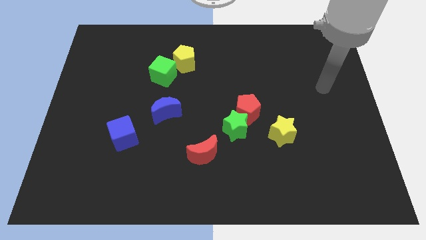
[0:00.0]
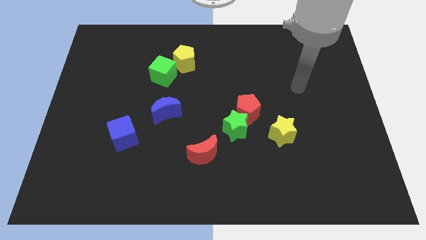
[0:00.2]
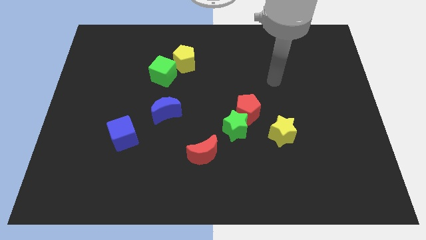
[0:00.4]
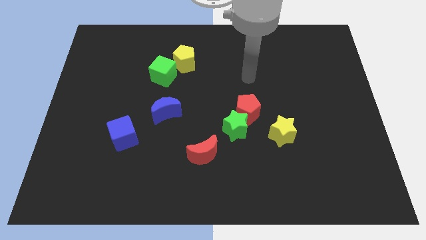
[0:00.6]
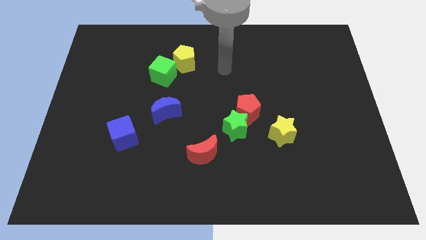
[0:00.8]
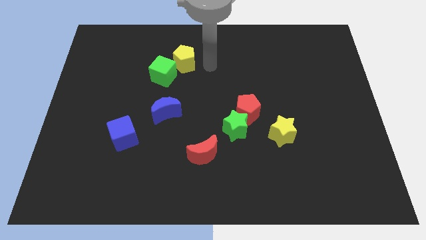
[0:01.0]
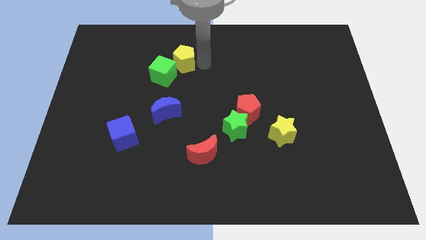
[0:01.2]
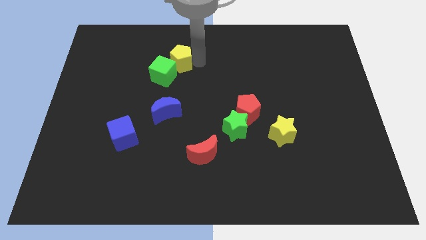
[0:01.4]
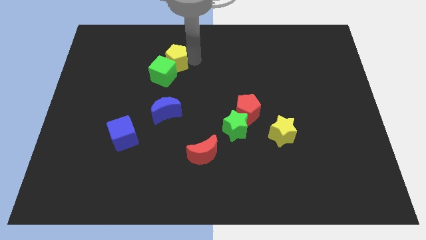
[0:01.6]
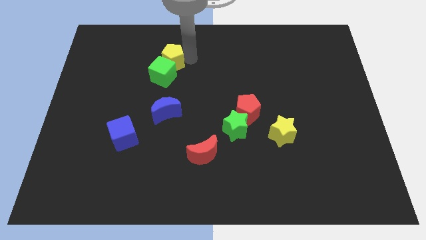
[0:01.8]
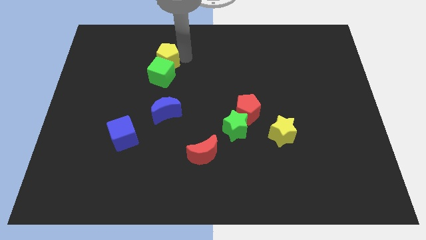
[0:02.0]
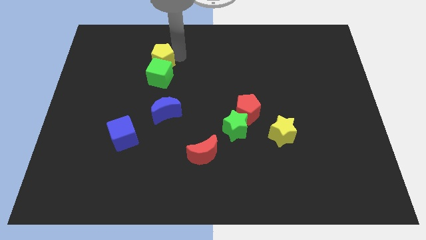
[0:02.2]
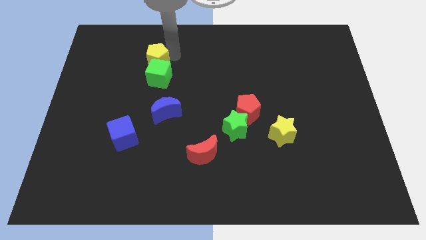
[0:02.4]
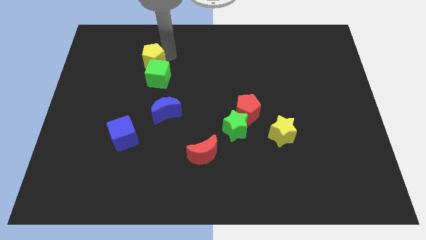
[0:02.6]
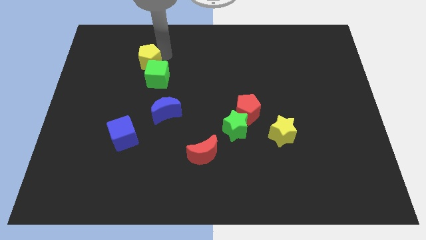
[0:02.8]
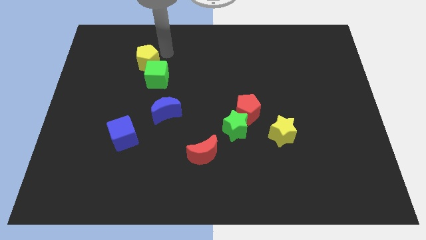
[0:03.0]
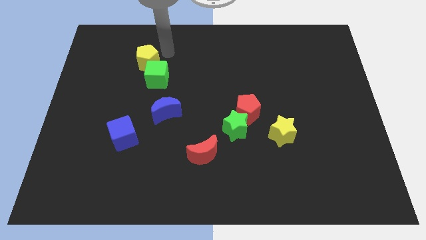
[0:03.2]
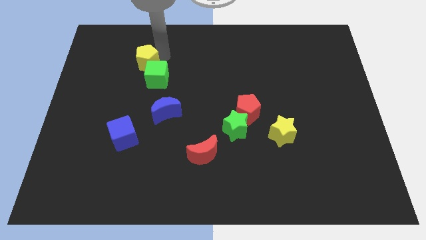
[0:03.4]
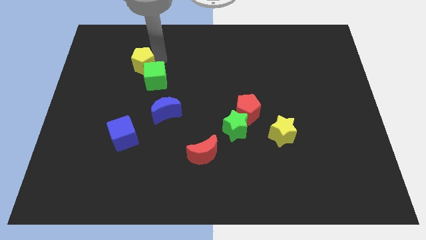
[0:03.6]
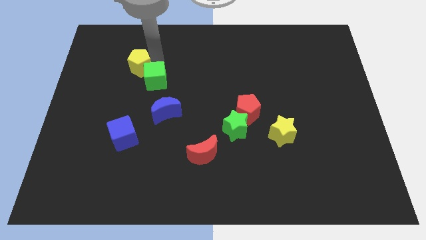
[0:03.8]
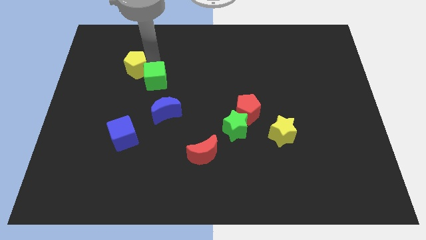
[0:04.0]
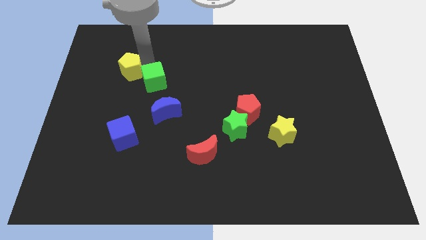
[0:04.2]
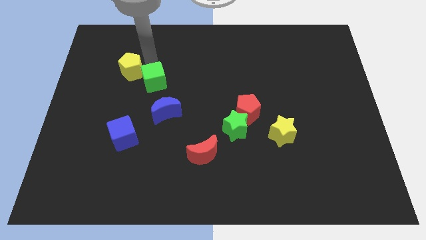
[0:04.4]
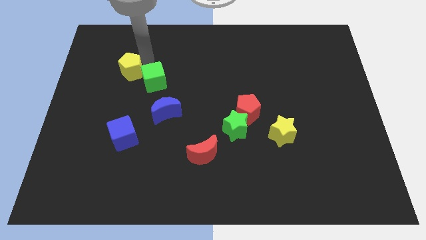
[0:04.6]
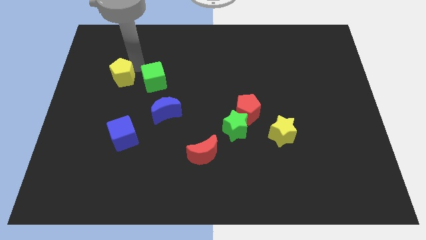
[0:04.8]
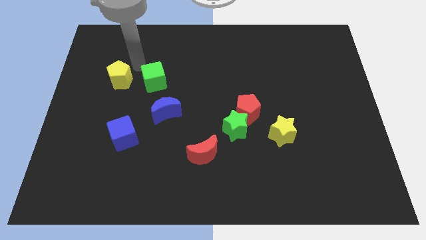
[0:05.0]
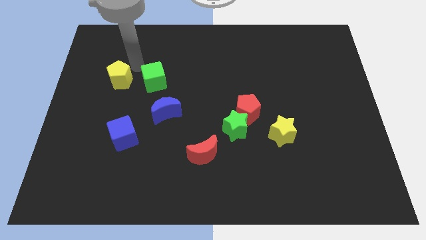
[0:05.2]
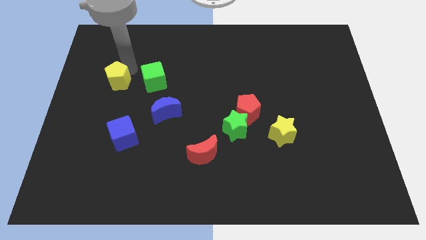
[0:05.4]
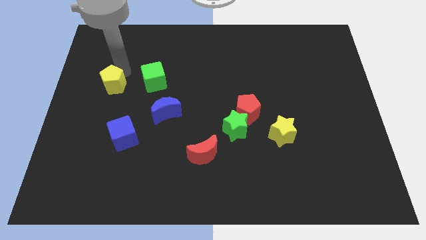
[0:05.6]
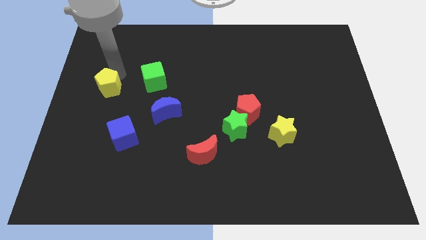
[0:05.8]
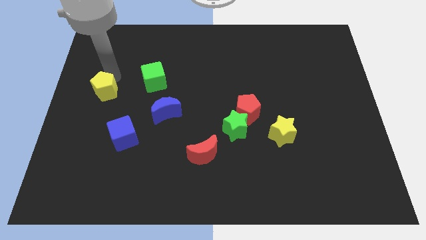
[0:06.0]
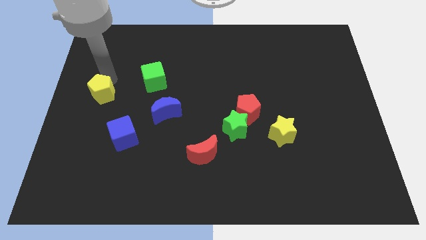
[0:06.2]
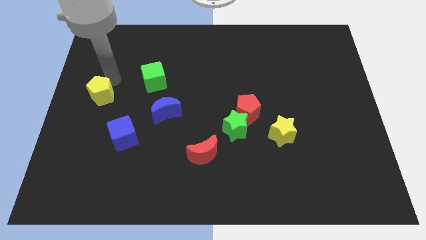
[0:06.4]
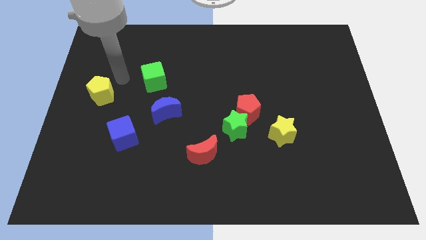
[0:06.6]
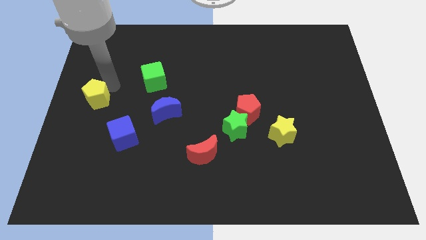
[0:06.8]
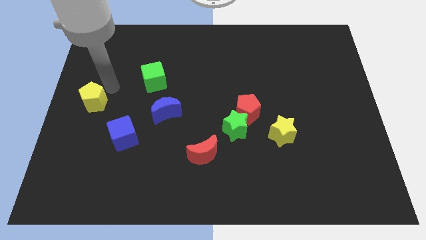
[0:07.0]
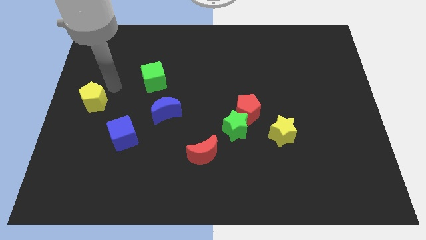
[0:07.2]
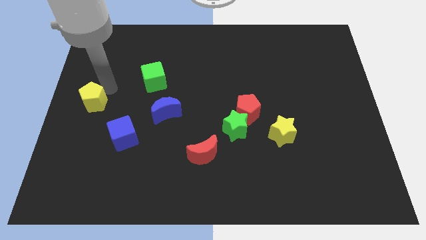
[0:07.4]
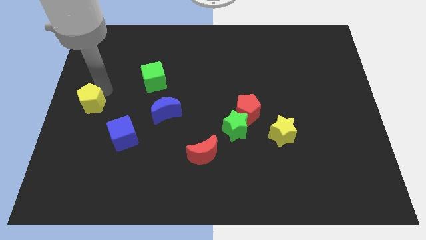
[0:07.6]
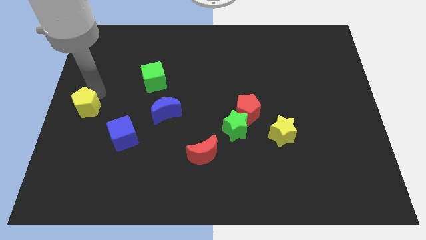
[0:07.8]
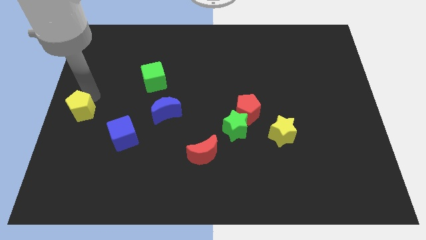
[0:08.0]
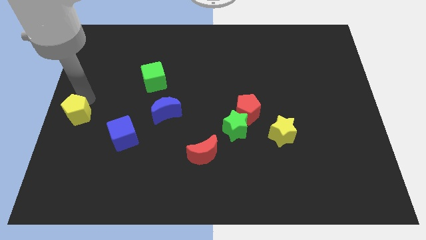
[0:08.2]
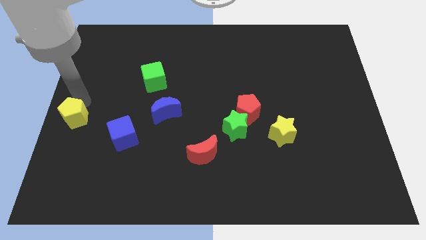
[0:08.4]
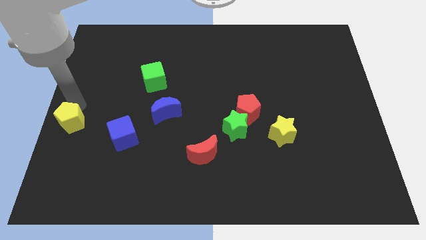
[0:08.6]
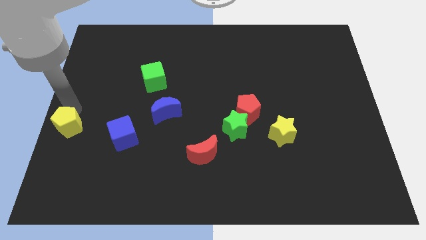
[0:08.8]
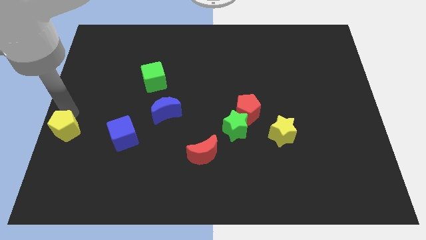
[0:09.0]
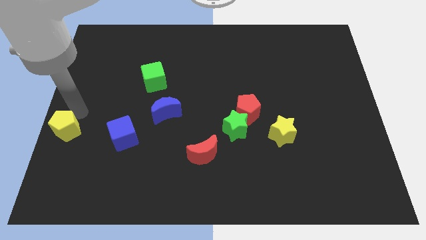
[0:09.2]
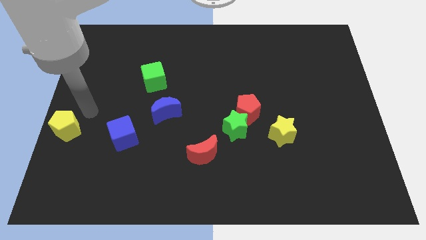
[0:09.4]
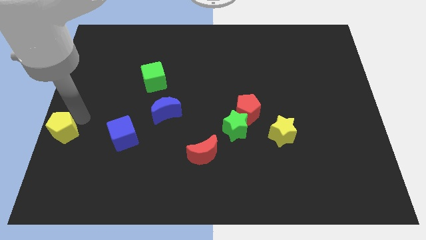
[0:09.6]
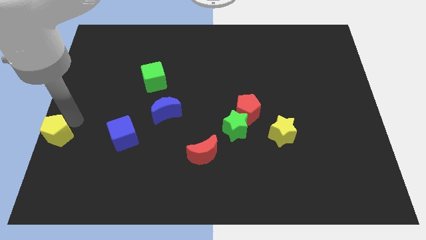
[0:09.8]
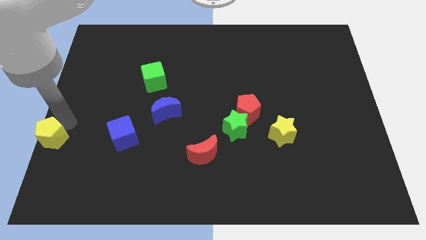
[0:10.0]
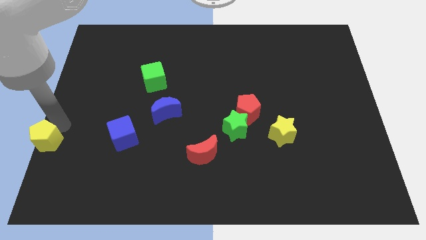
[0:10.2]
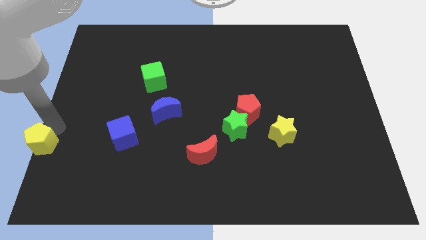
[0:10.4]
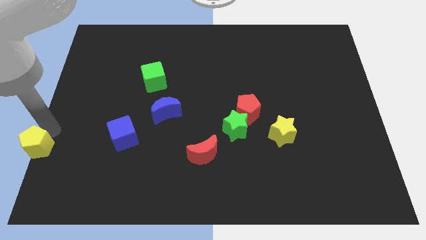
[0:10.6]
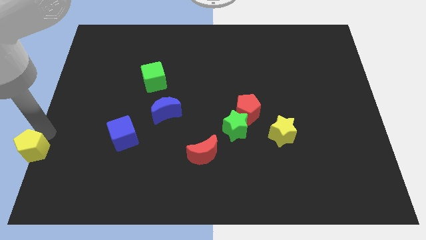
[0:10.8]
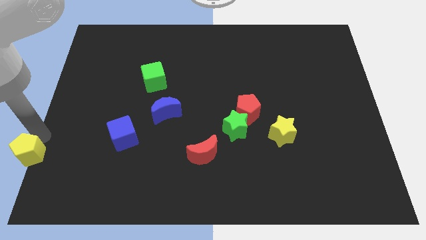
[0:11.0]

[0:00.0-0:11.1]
slide the yellow pentagon to the bottom left
